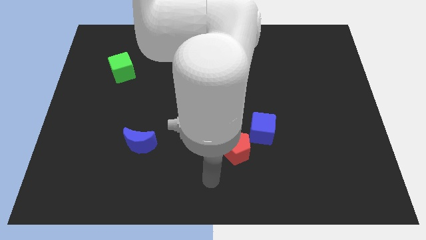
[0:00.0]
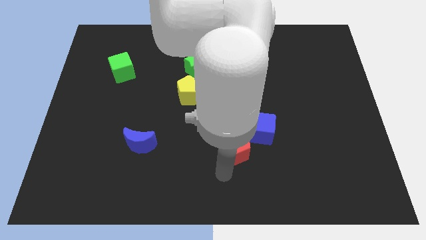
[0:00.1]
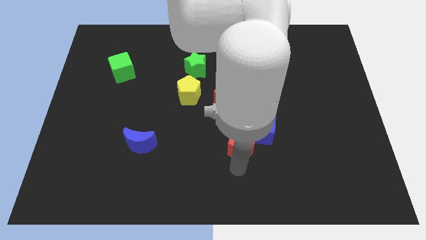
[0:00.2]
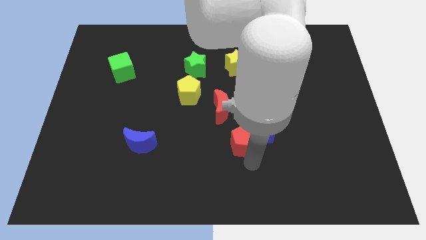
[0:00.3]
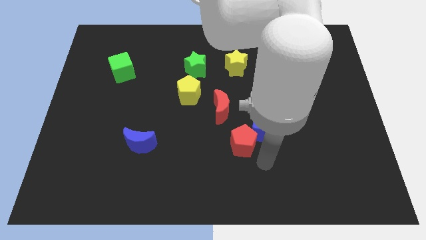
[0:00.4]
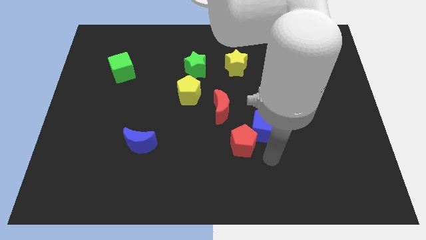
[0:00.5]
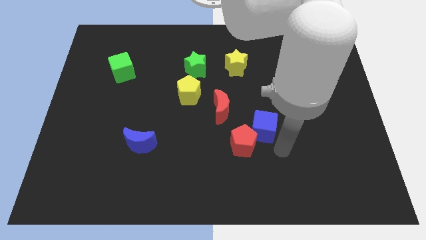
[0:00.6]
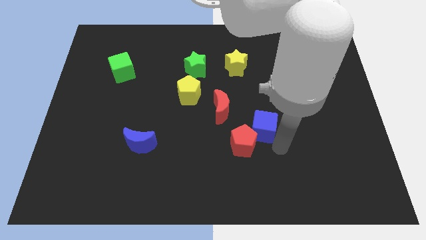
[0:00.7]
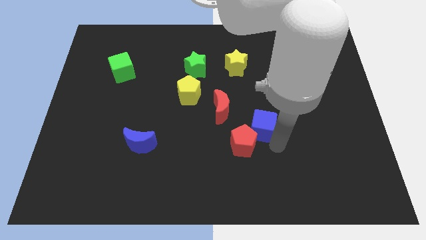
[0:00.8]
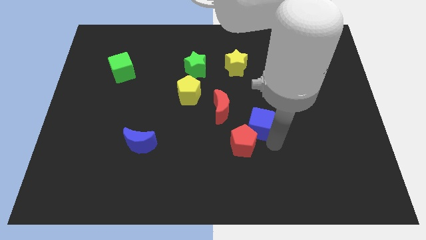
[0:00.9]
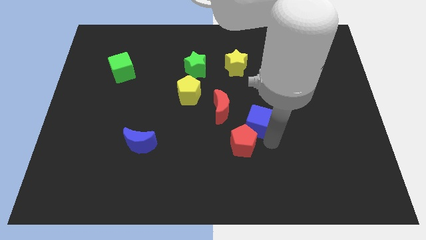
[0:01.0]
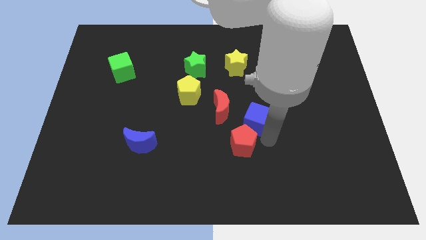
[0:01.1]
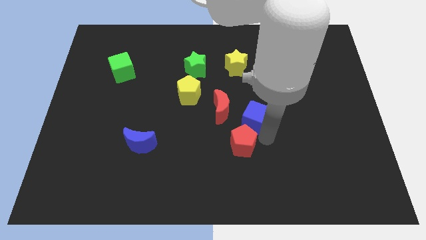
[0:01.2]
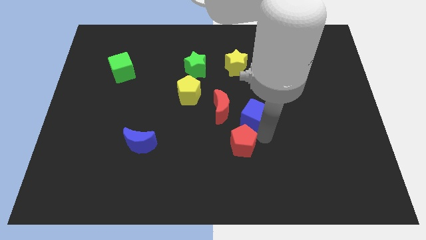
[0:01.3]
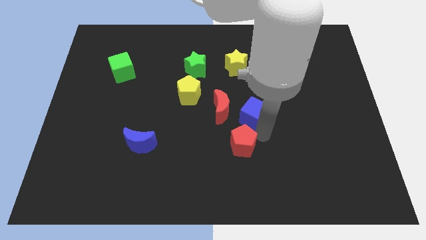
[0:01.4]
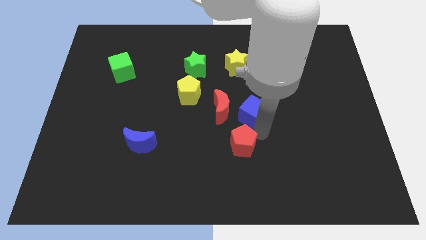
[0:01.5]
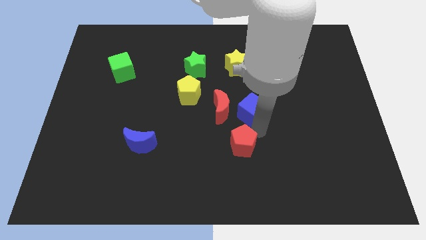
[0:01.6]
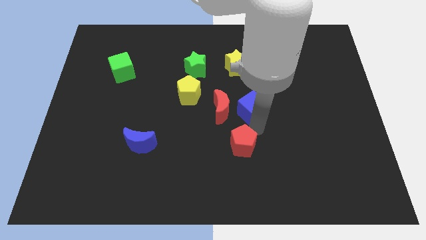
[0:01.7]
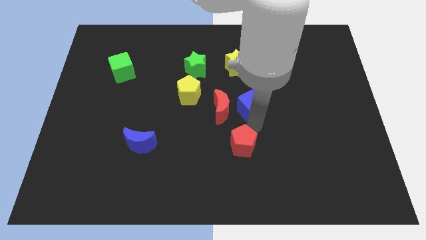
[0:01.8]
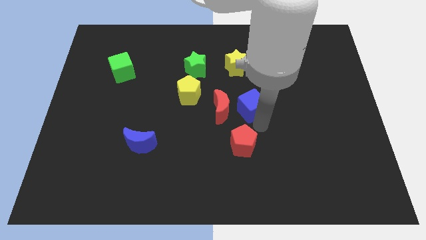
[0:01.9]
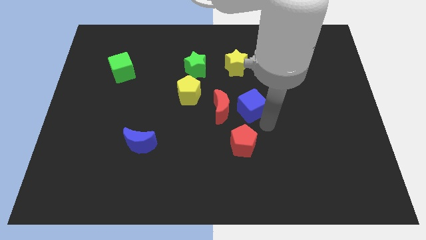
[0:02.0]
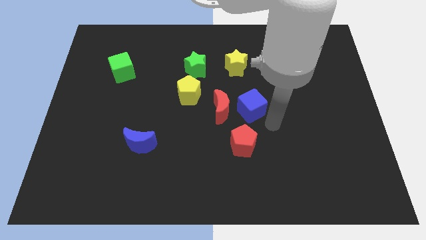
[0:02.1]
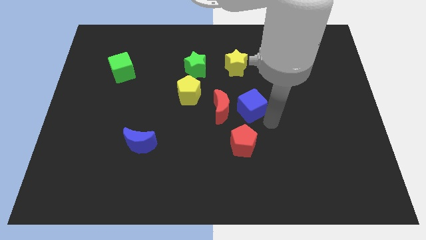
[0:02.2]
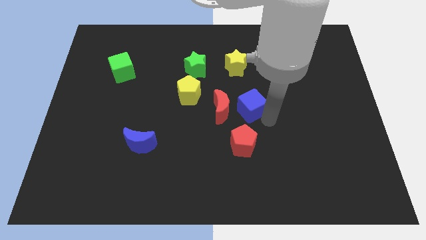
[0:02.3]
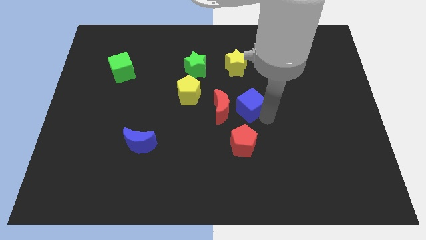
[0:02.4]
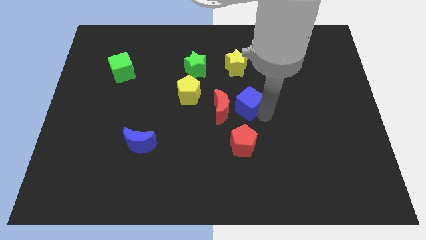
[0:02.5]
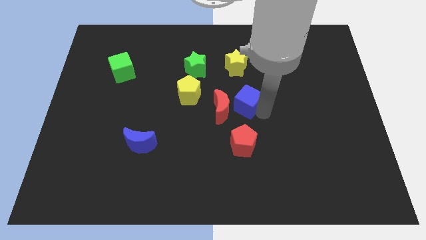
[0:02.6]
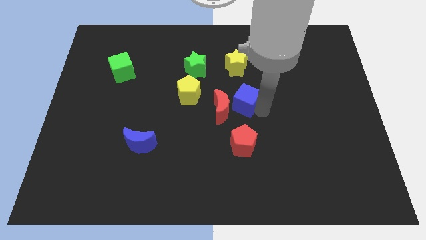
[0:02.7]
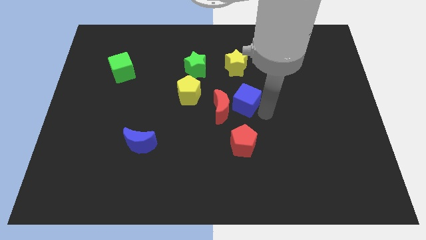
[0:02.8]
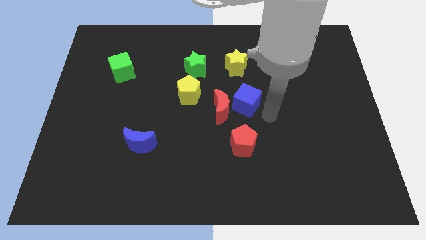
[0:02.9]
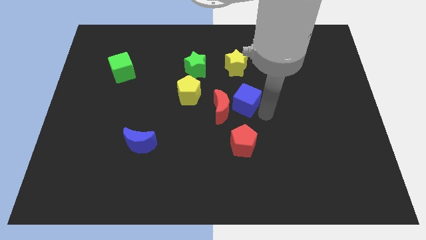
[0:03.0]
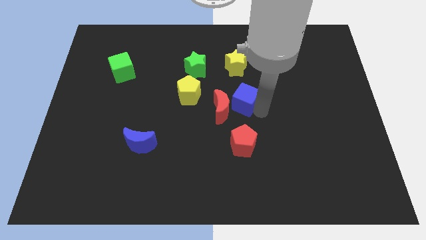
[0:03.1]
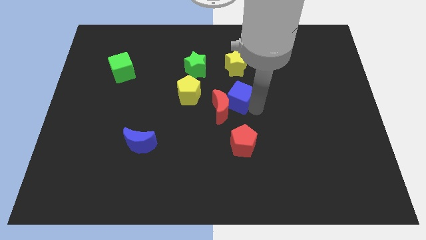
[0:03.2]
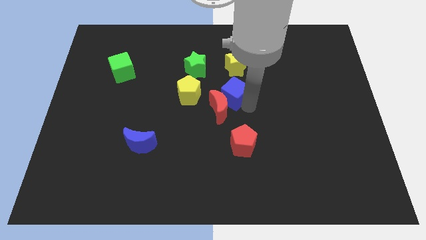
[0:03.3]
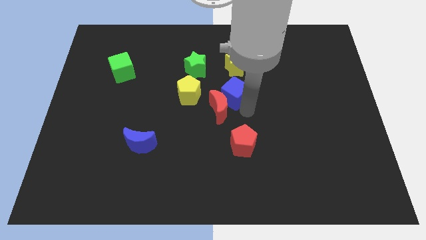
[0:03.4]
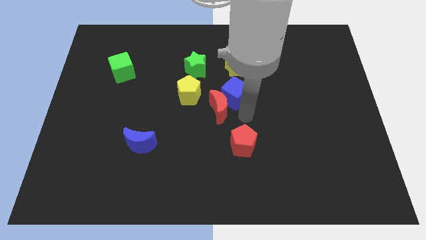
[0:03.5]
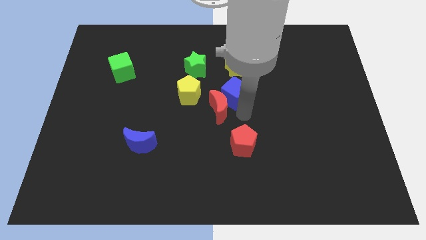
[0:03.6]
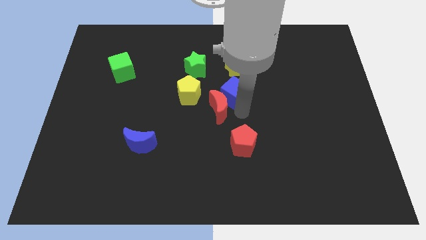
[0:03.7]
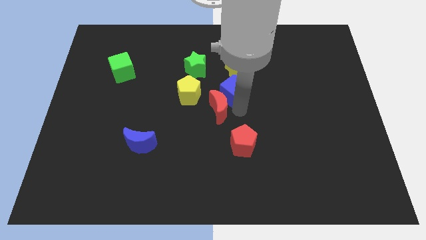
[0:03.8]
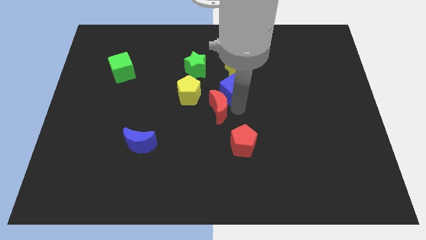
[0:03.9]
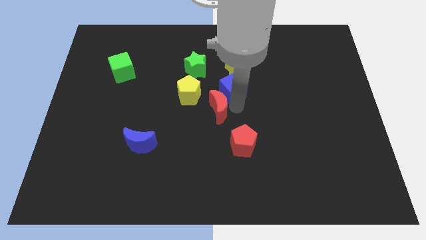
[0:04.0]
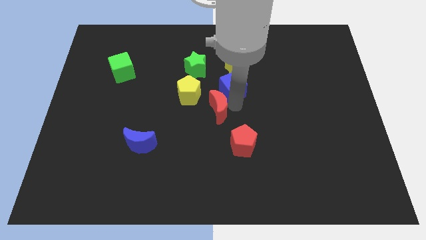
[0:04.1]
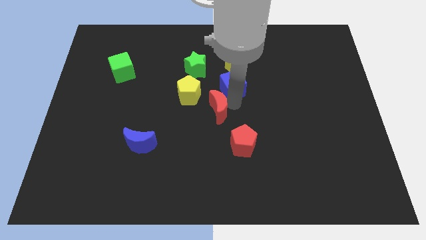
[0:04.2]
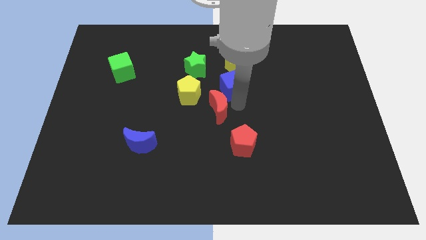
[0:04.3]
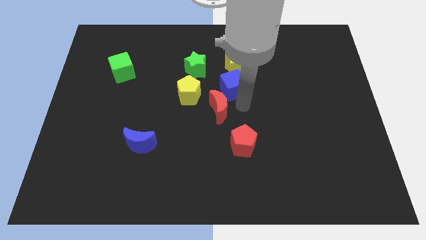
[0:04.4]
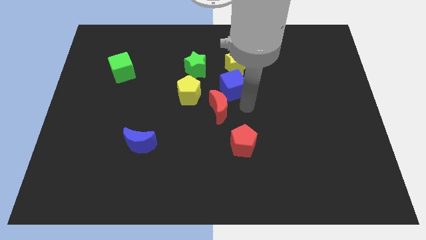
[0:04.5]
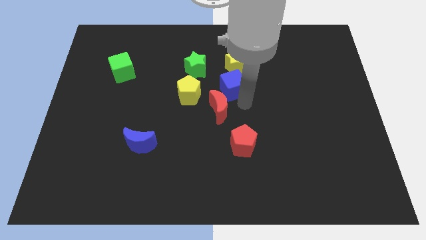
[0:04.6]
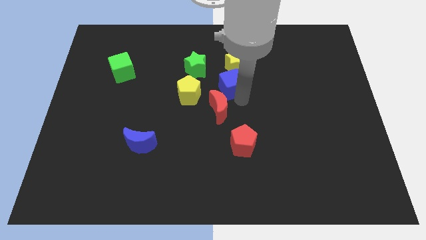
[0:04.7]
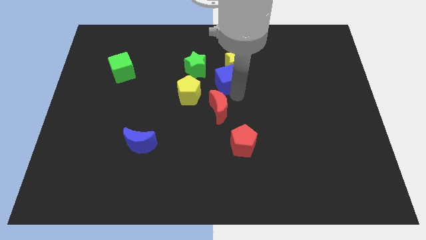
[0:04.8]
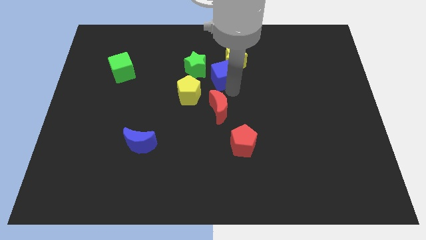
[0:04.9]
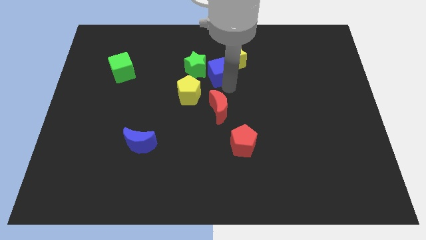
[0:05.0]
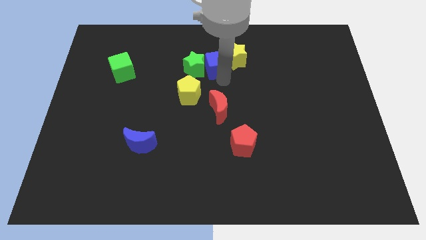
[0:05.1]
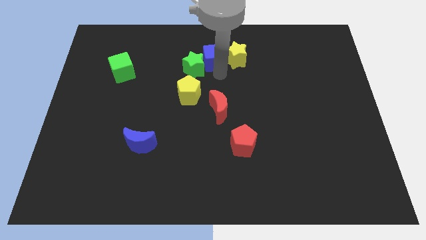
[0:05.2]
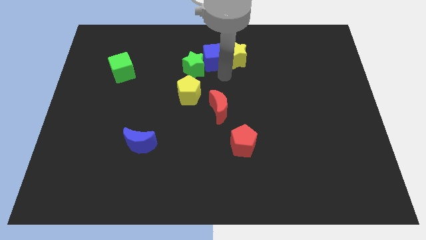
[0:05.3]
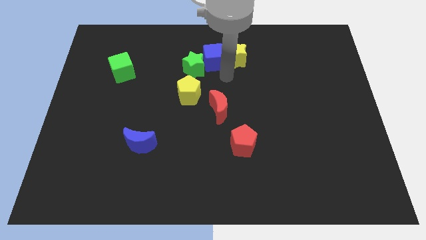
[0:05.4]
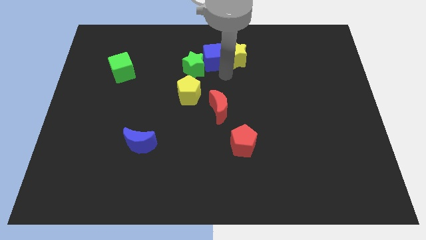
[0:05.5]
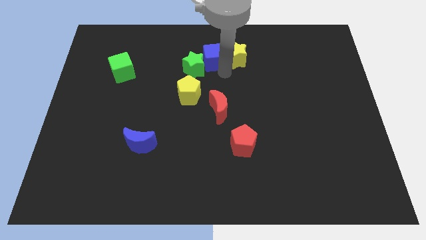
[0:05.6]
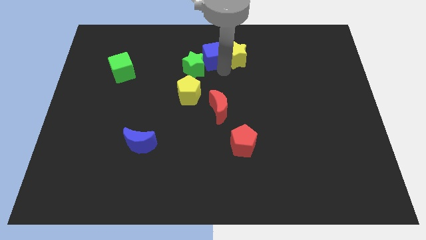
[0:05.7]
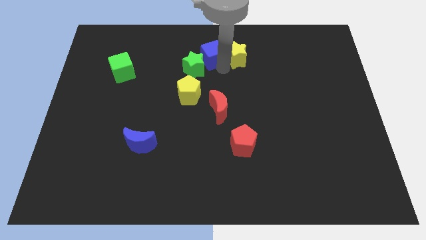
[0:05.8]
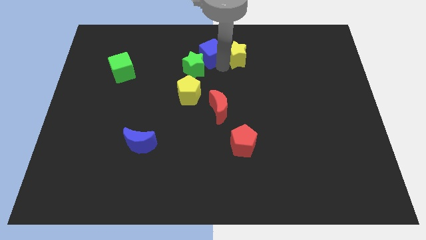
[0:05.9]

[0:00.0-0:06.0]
push the blue cube to the top

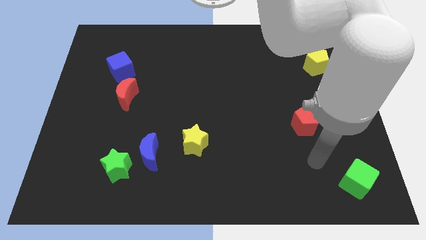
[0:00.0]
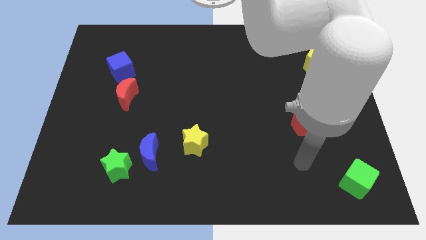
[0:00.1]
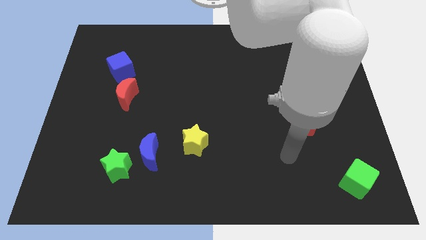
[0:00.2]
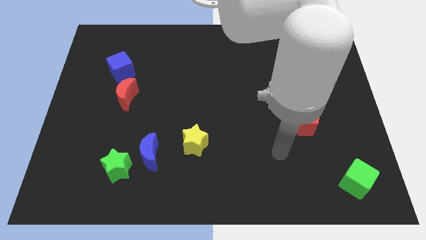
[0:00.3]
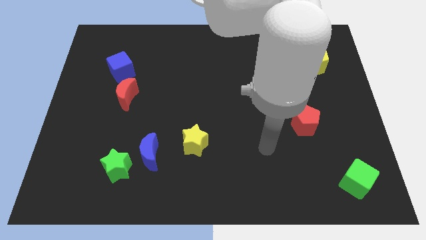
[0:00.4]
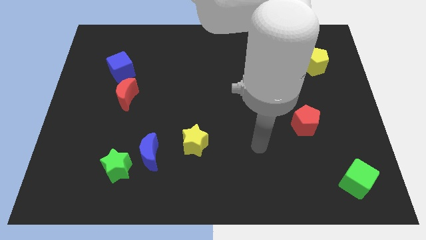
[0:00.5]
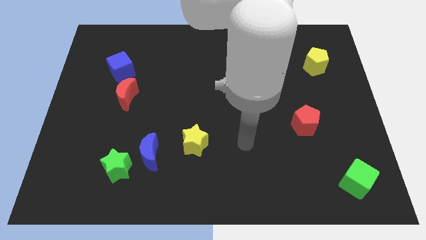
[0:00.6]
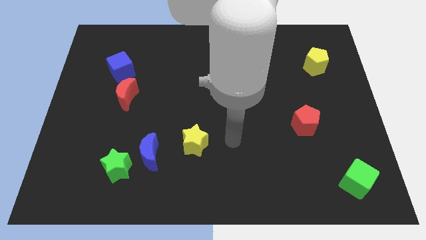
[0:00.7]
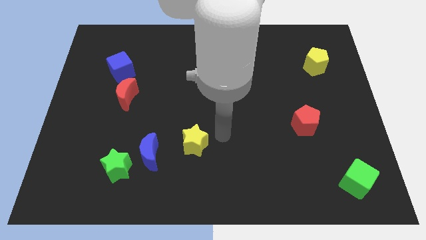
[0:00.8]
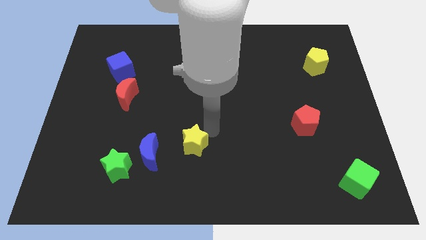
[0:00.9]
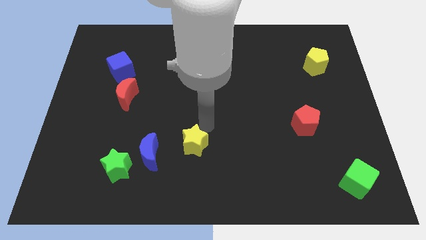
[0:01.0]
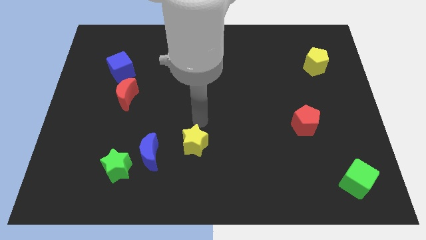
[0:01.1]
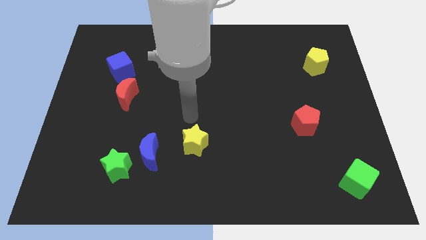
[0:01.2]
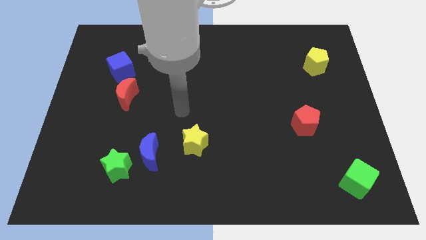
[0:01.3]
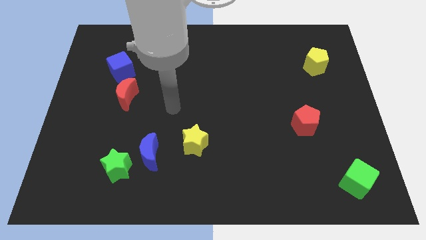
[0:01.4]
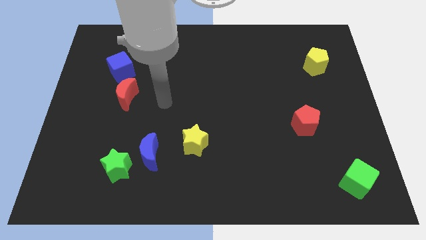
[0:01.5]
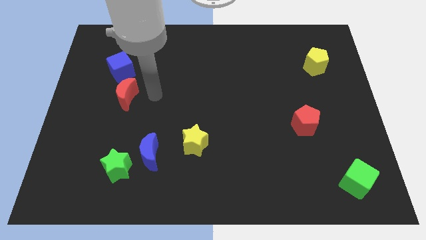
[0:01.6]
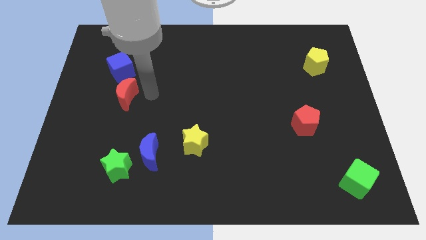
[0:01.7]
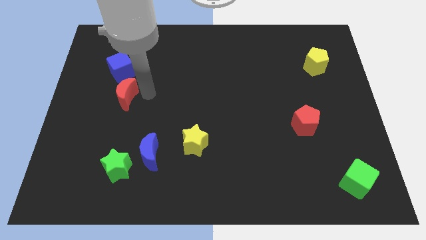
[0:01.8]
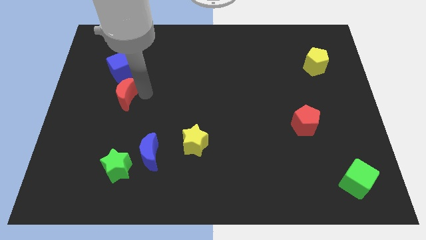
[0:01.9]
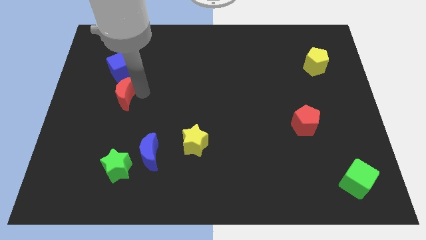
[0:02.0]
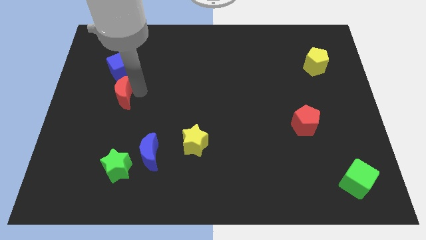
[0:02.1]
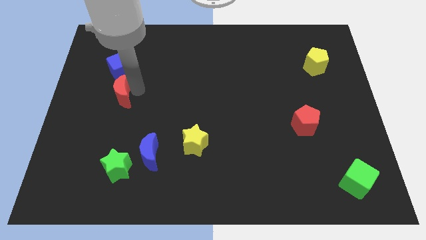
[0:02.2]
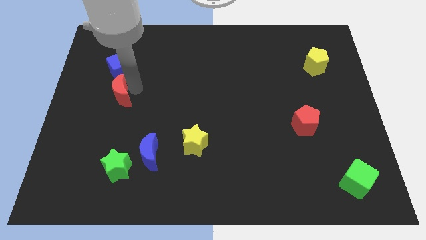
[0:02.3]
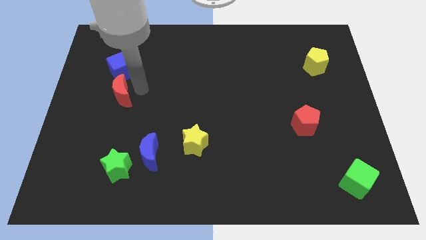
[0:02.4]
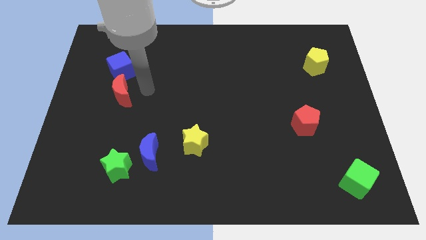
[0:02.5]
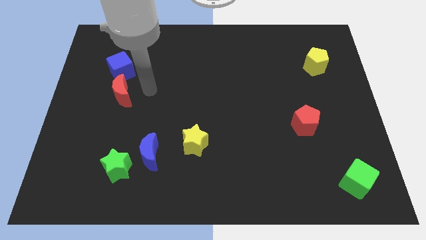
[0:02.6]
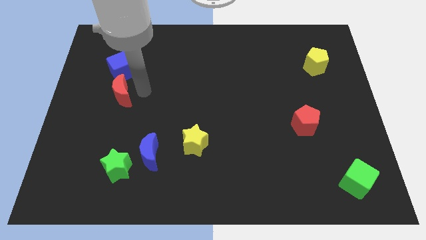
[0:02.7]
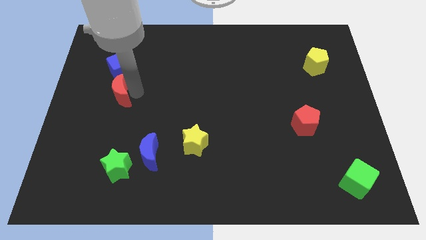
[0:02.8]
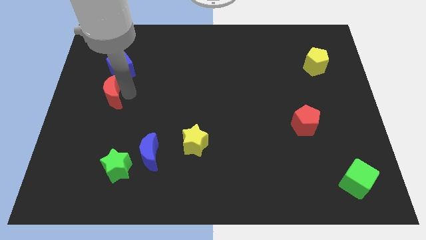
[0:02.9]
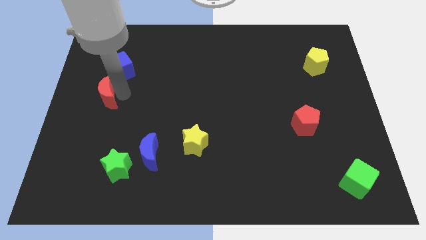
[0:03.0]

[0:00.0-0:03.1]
move the red moon to the left side
